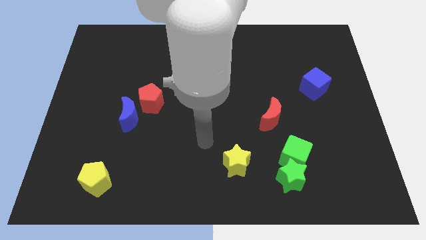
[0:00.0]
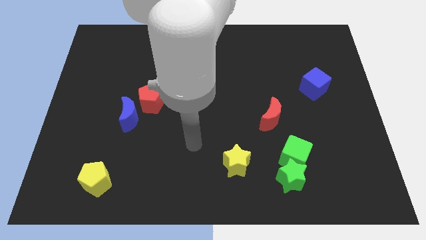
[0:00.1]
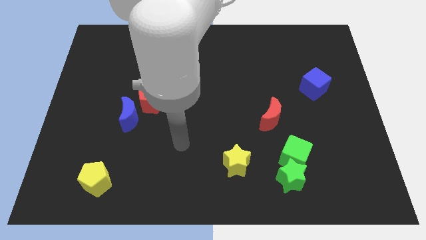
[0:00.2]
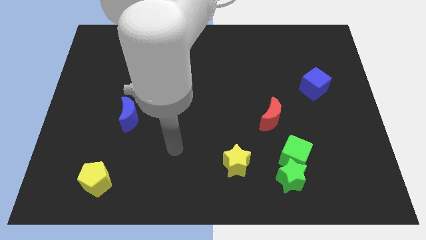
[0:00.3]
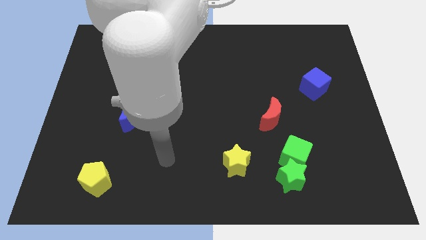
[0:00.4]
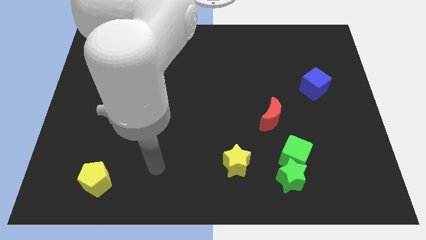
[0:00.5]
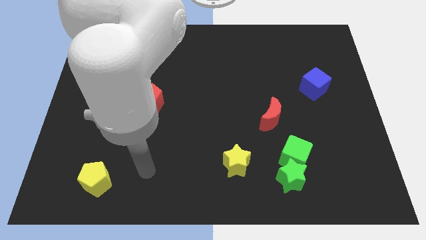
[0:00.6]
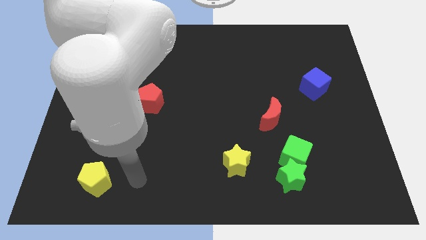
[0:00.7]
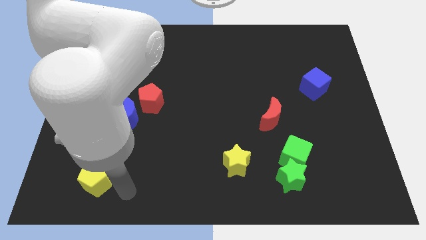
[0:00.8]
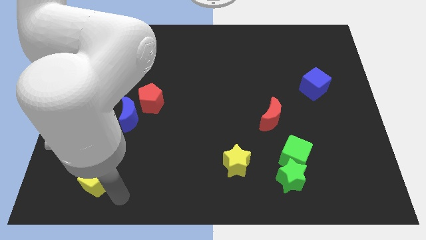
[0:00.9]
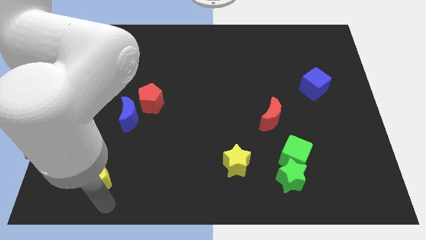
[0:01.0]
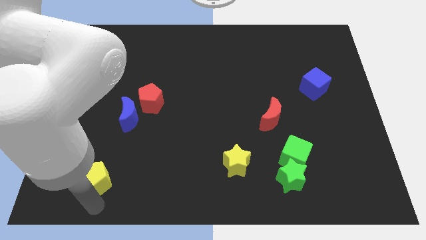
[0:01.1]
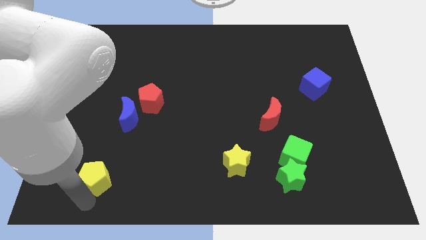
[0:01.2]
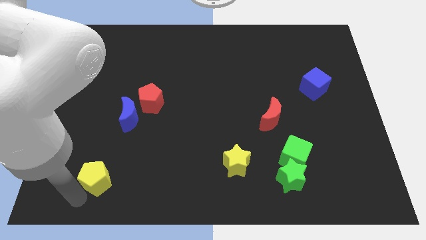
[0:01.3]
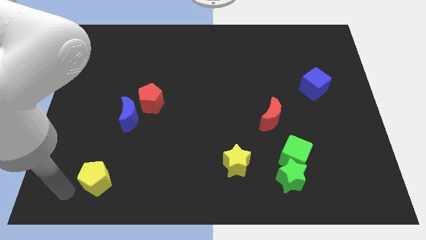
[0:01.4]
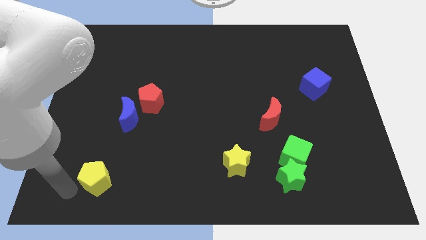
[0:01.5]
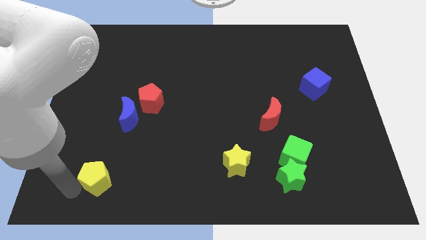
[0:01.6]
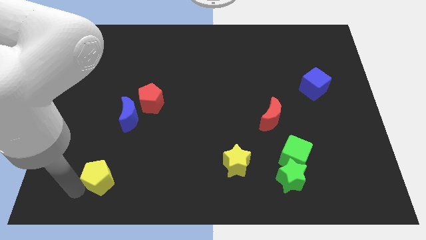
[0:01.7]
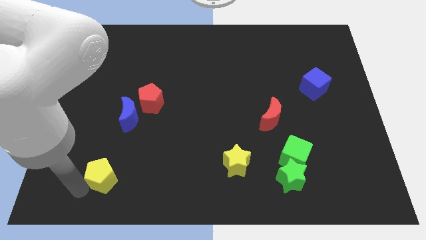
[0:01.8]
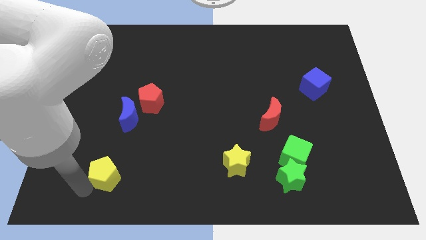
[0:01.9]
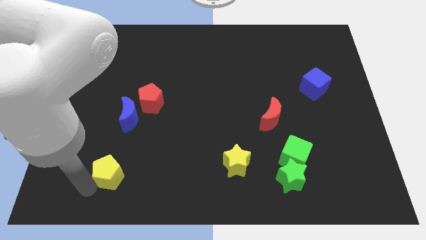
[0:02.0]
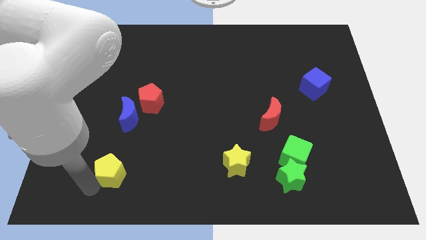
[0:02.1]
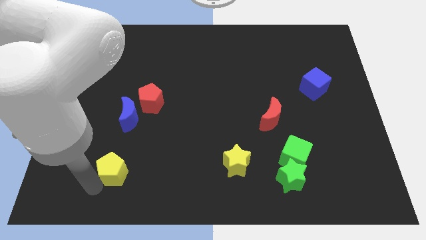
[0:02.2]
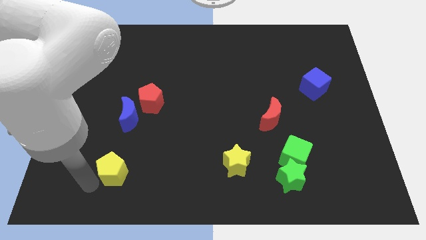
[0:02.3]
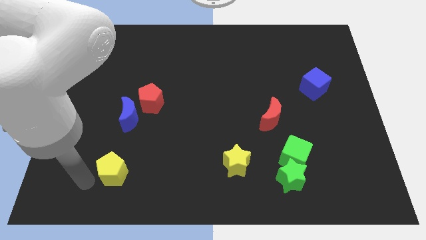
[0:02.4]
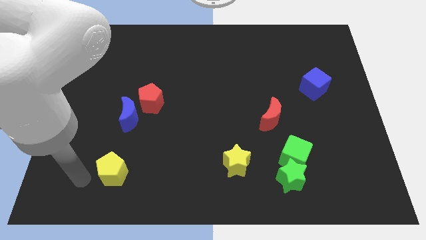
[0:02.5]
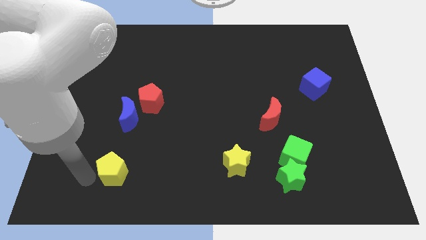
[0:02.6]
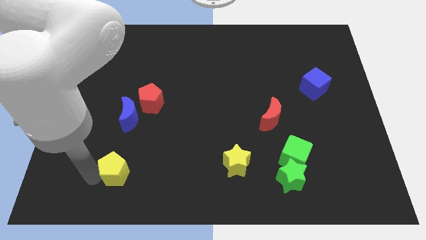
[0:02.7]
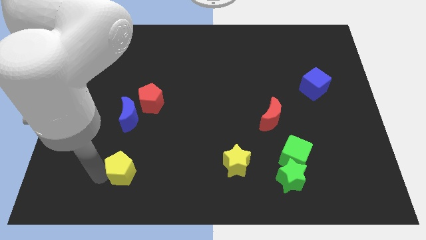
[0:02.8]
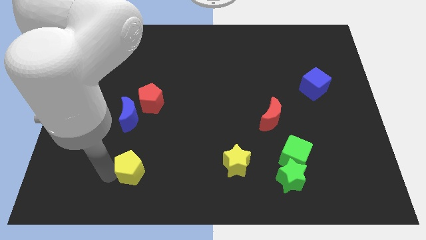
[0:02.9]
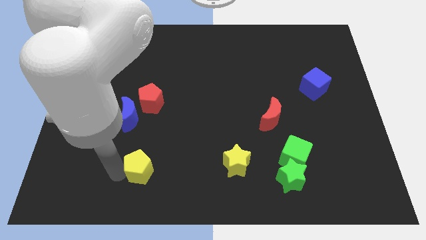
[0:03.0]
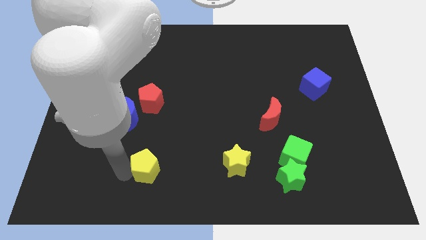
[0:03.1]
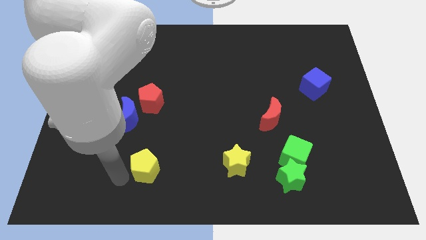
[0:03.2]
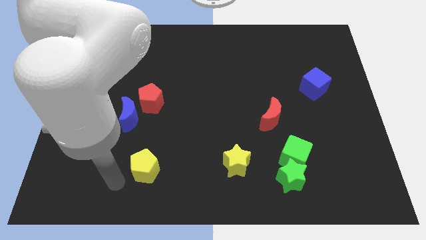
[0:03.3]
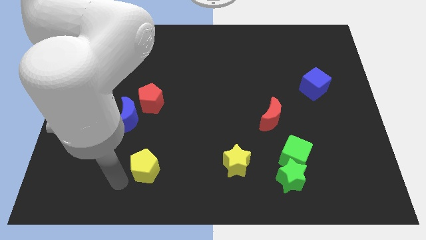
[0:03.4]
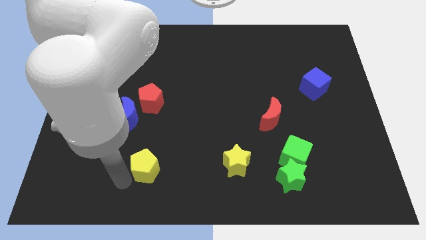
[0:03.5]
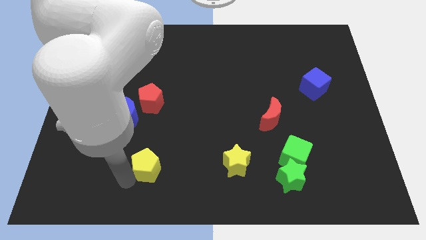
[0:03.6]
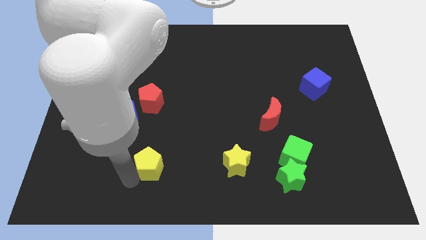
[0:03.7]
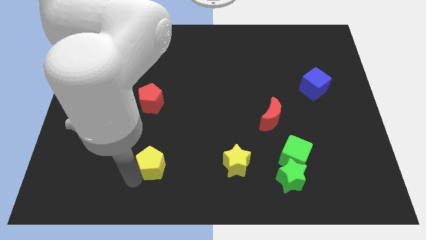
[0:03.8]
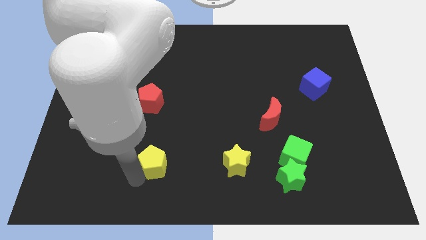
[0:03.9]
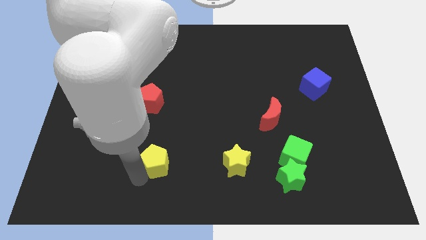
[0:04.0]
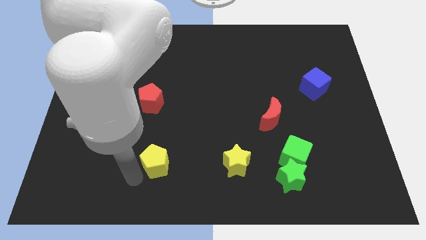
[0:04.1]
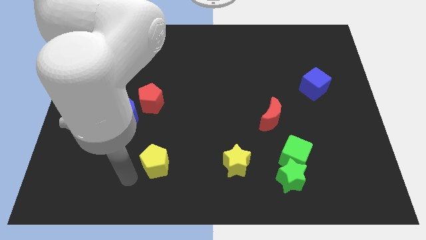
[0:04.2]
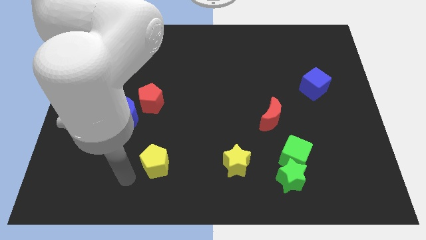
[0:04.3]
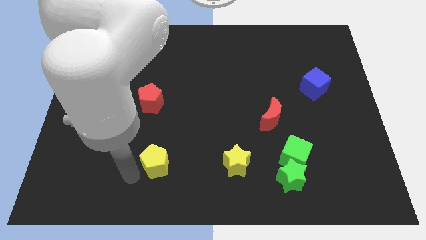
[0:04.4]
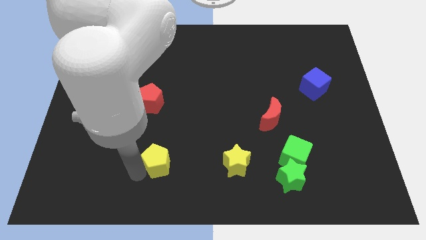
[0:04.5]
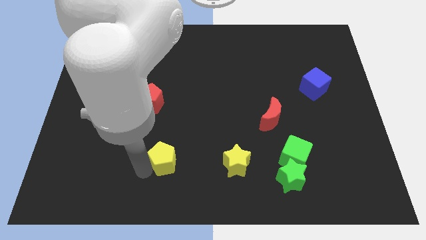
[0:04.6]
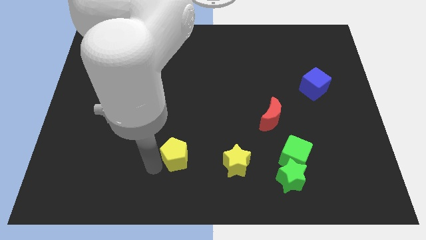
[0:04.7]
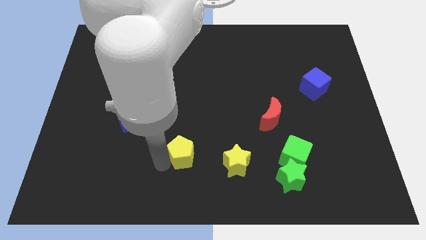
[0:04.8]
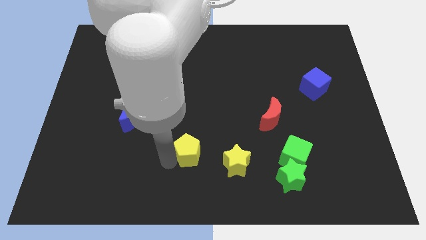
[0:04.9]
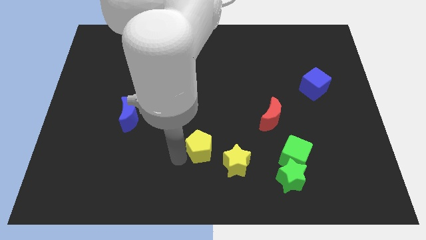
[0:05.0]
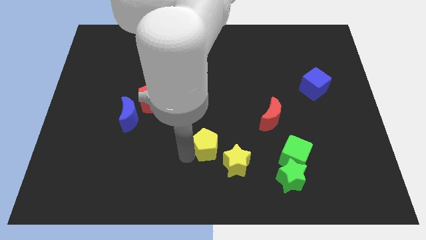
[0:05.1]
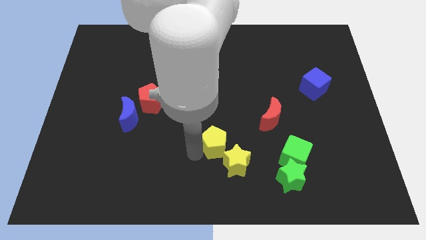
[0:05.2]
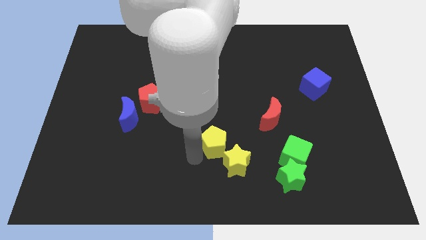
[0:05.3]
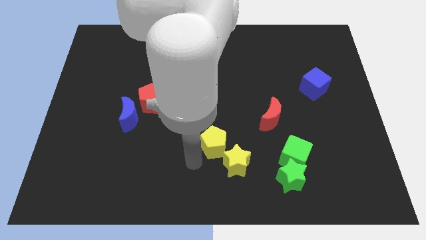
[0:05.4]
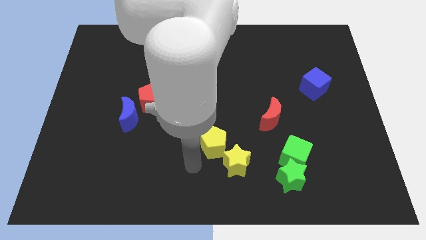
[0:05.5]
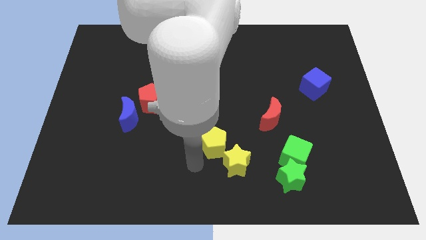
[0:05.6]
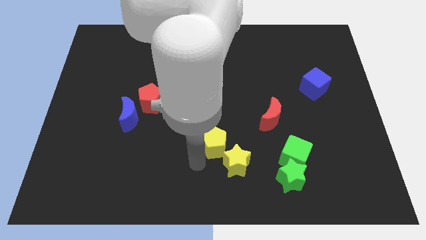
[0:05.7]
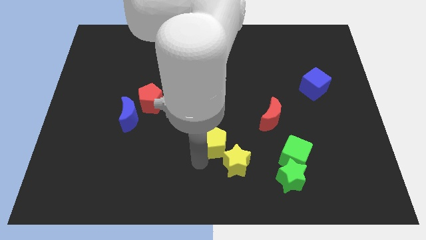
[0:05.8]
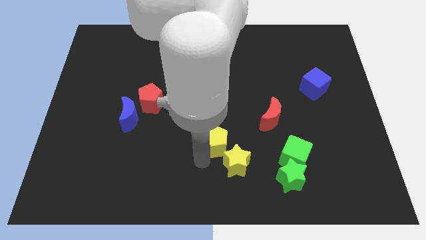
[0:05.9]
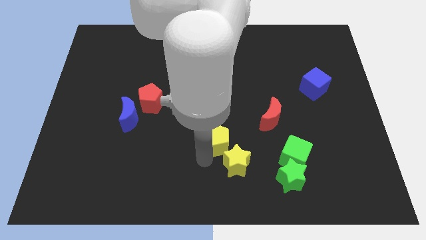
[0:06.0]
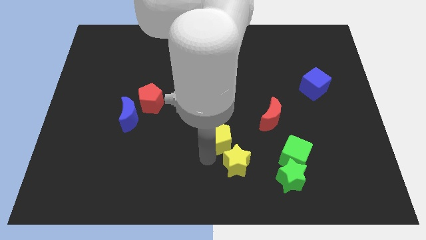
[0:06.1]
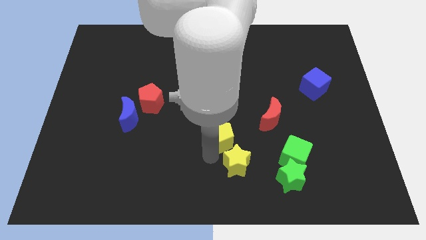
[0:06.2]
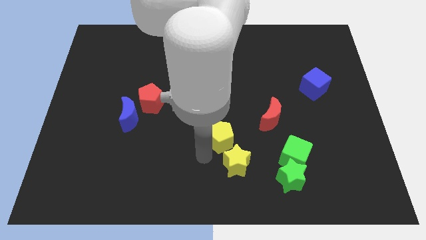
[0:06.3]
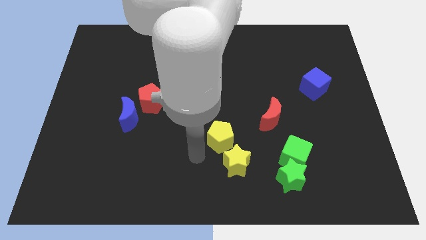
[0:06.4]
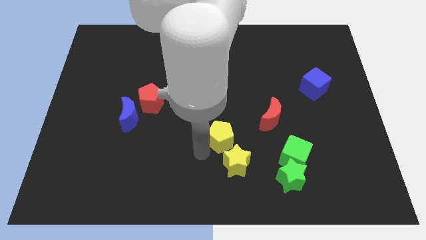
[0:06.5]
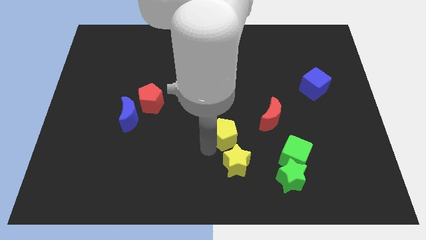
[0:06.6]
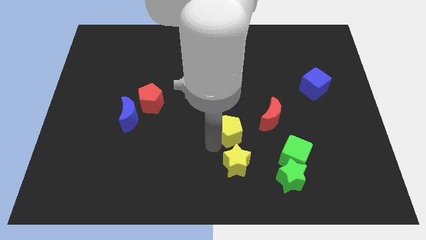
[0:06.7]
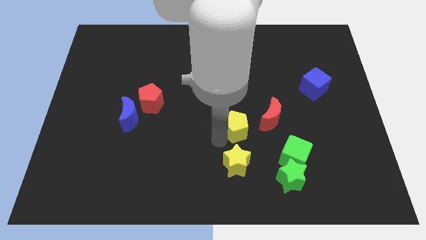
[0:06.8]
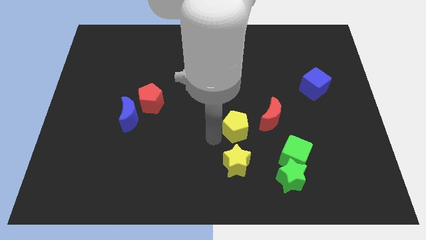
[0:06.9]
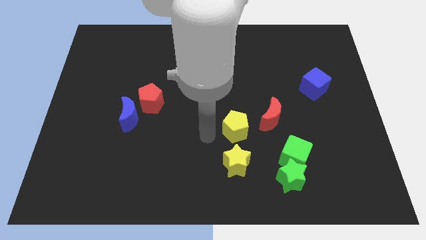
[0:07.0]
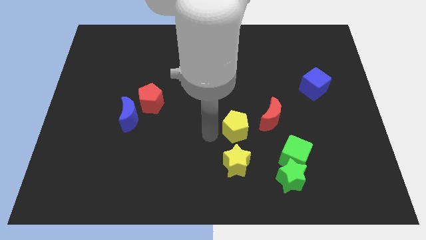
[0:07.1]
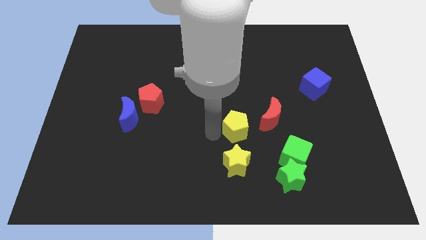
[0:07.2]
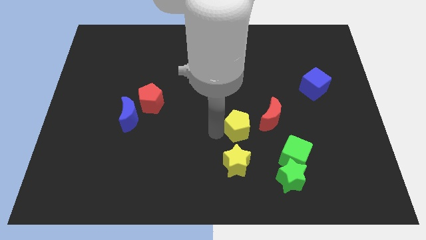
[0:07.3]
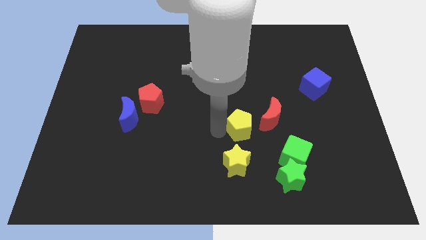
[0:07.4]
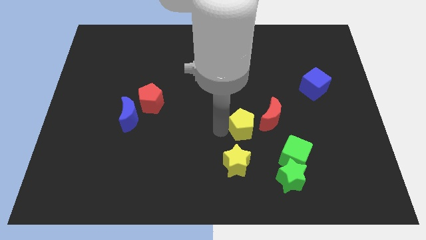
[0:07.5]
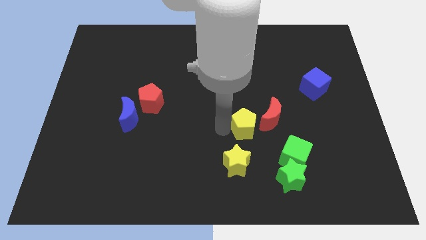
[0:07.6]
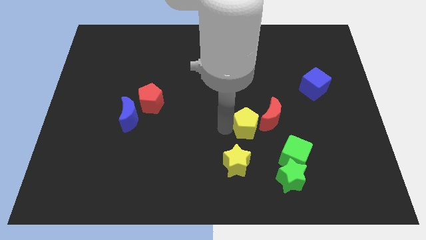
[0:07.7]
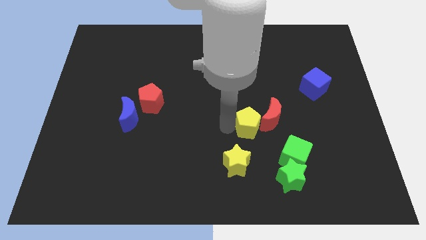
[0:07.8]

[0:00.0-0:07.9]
push the yellow pentagon close to the red moon
